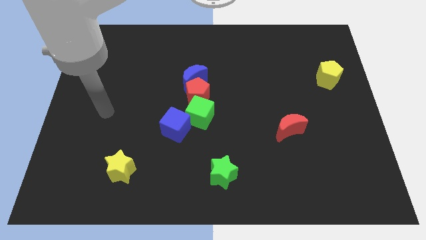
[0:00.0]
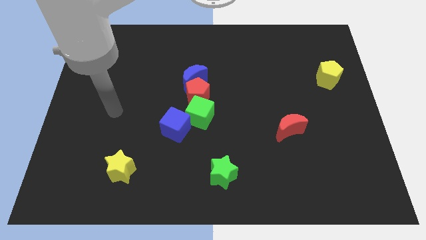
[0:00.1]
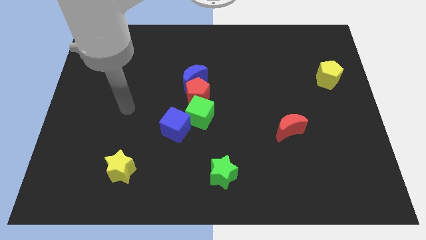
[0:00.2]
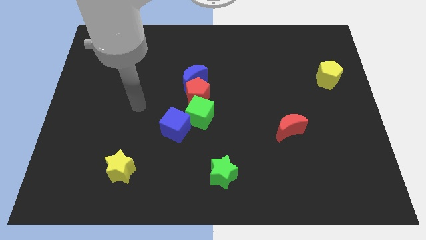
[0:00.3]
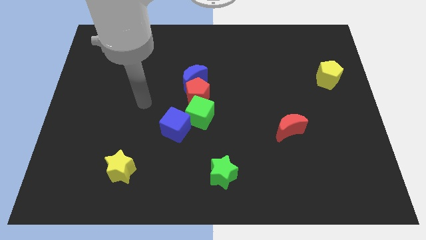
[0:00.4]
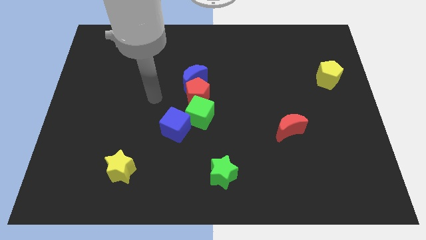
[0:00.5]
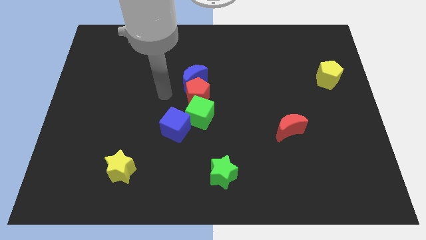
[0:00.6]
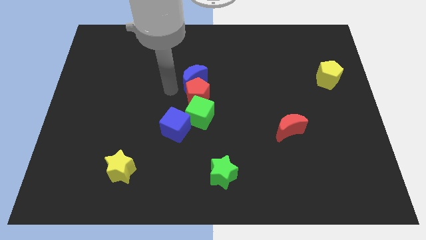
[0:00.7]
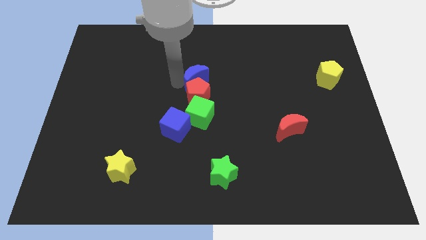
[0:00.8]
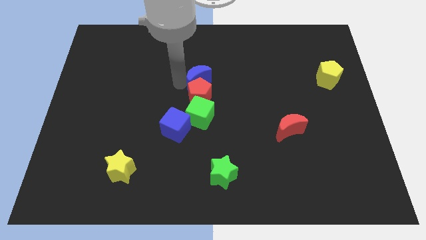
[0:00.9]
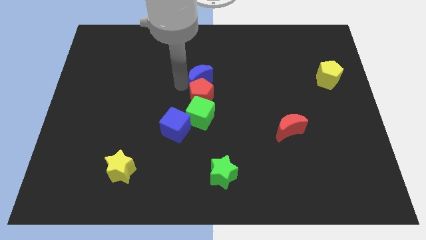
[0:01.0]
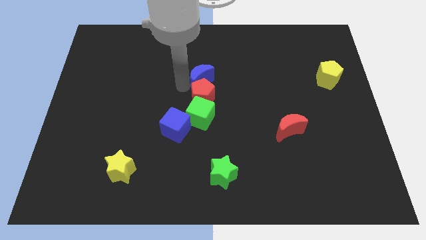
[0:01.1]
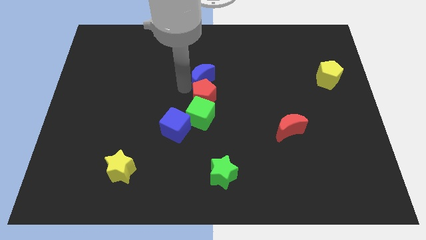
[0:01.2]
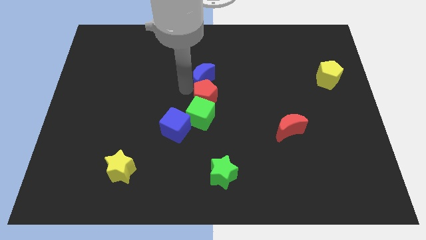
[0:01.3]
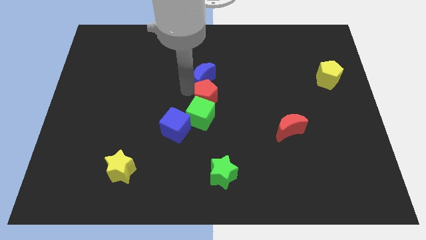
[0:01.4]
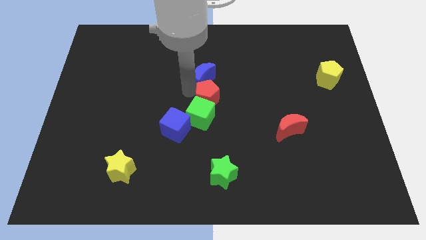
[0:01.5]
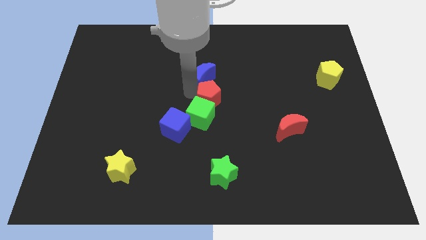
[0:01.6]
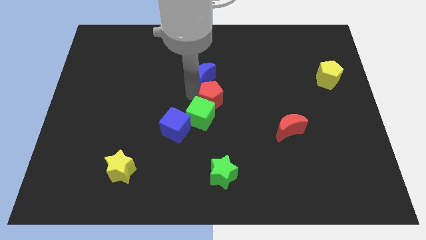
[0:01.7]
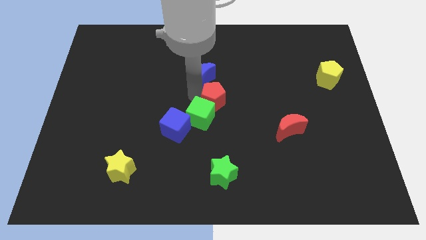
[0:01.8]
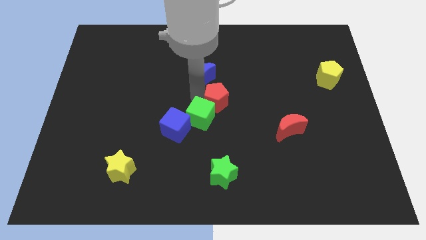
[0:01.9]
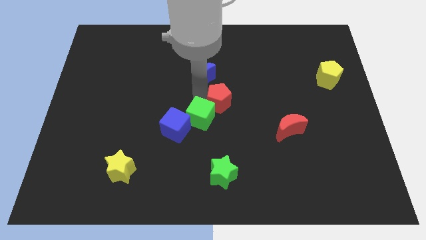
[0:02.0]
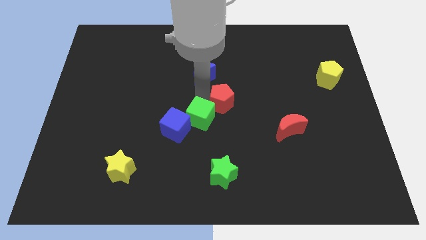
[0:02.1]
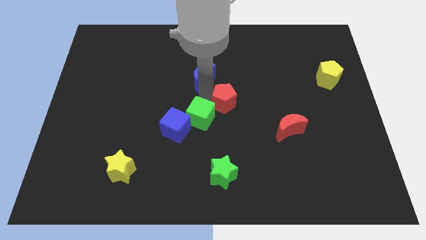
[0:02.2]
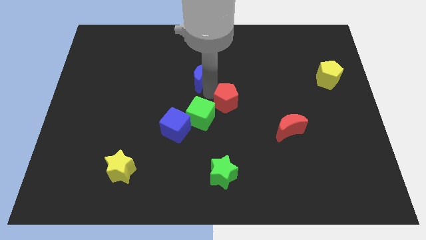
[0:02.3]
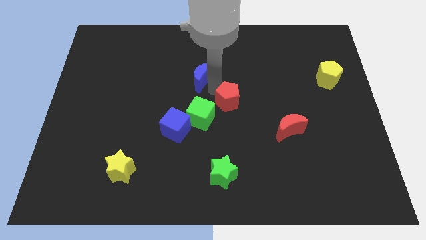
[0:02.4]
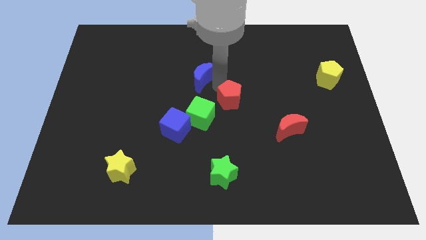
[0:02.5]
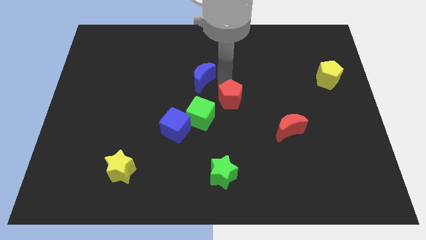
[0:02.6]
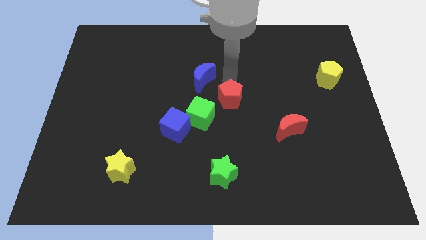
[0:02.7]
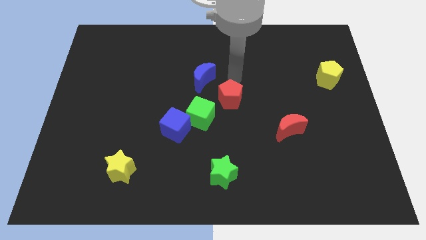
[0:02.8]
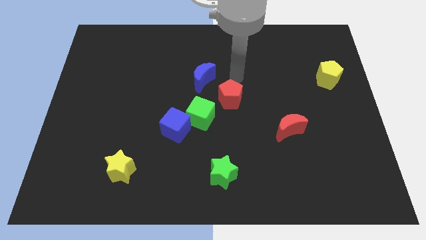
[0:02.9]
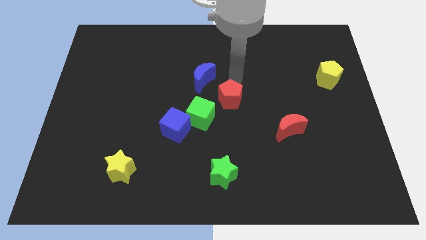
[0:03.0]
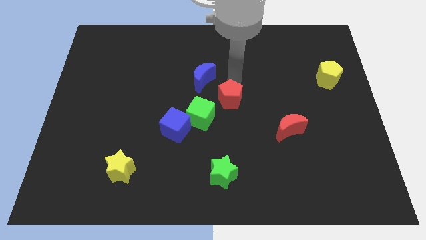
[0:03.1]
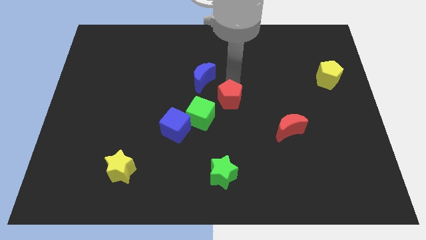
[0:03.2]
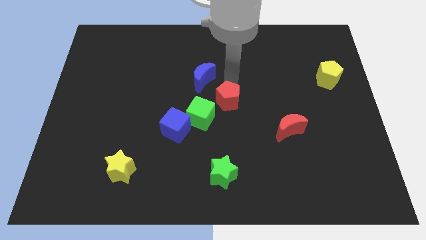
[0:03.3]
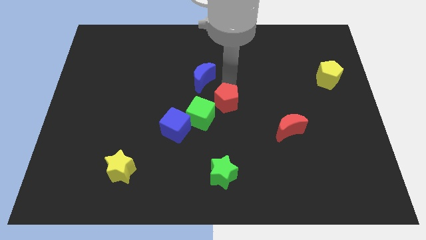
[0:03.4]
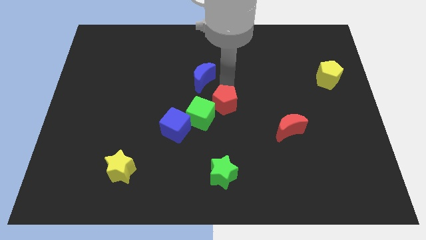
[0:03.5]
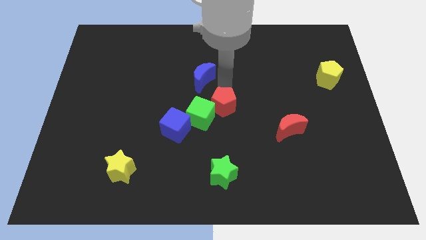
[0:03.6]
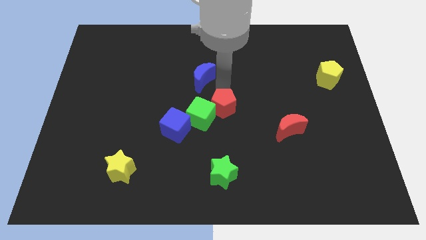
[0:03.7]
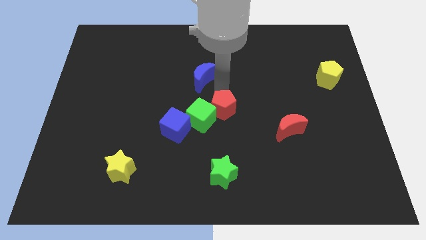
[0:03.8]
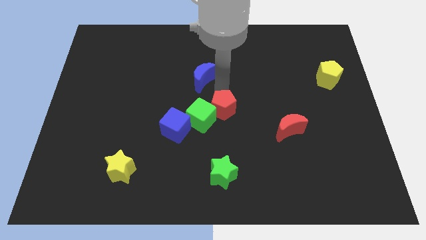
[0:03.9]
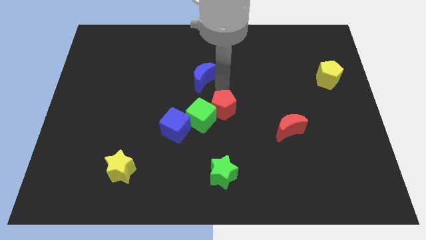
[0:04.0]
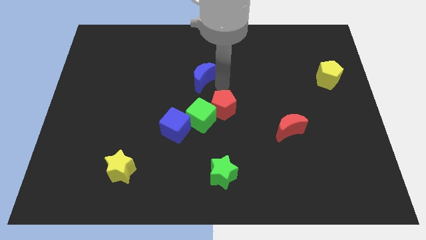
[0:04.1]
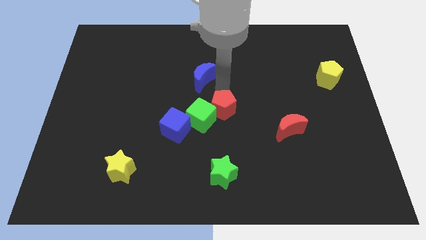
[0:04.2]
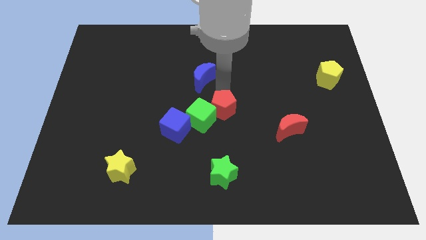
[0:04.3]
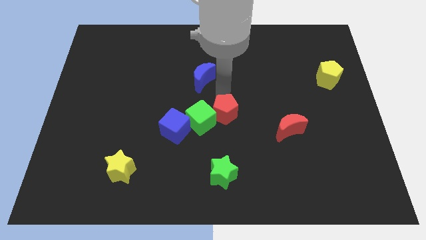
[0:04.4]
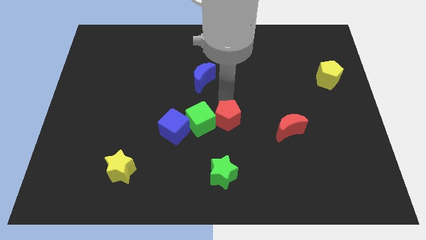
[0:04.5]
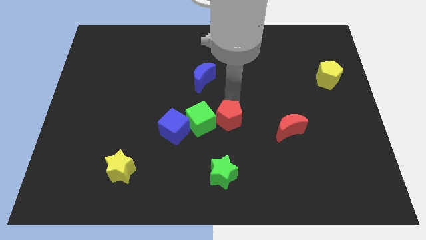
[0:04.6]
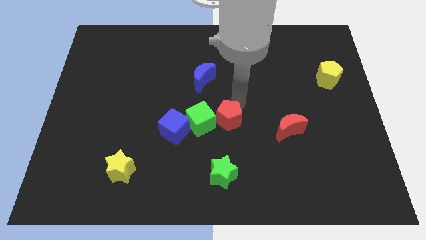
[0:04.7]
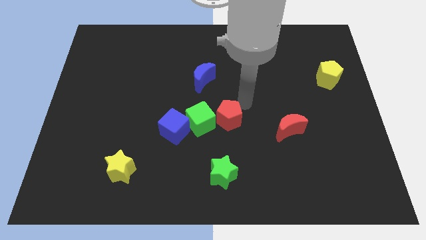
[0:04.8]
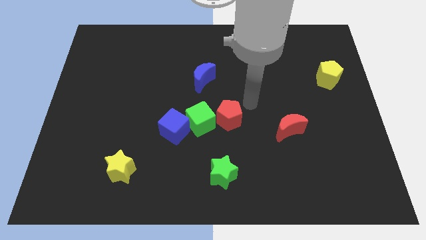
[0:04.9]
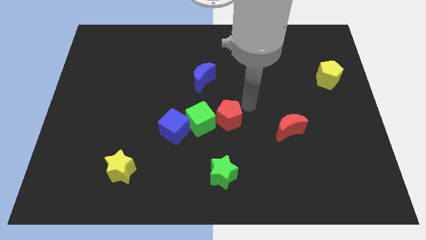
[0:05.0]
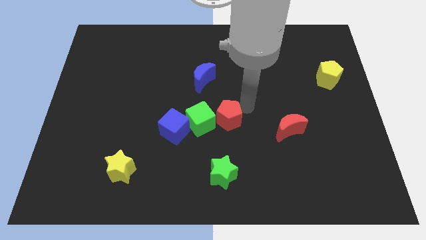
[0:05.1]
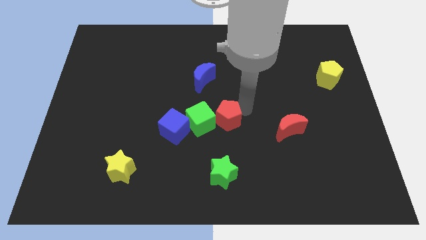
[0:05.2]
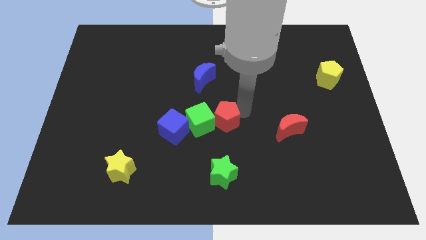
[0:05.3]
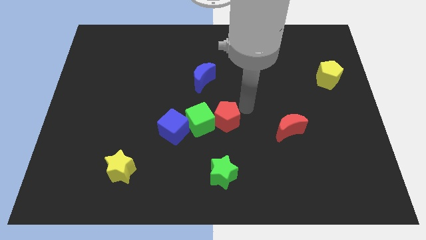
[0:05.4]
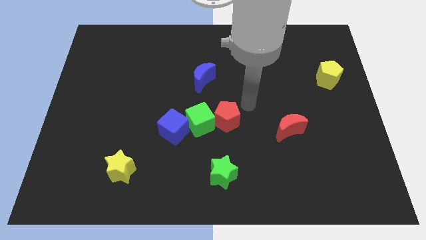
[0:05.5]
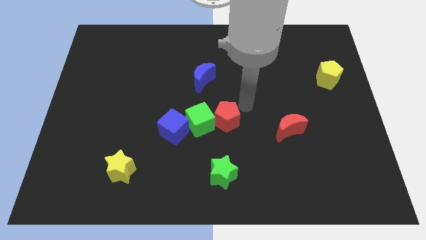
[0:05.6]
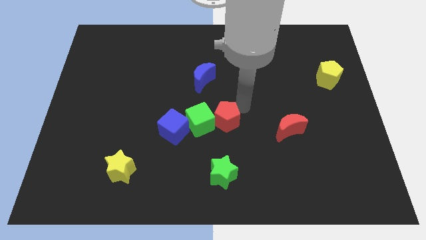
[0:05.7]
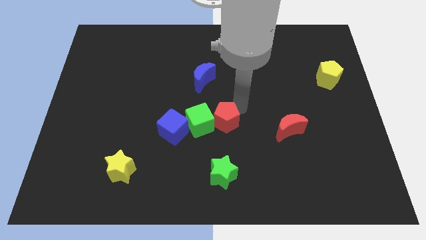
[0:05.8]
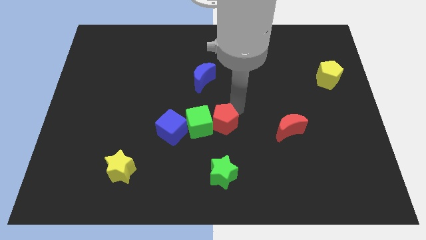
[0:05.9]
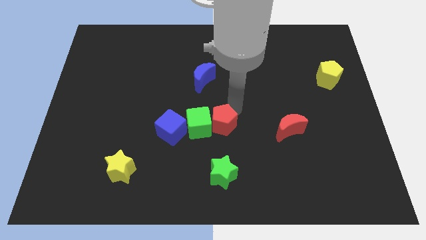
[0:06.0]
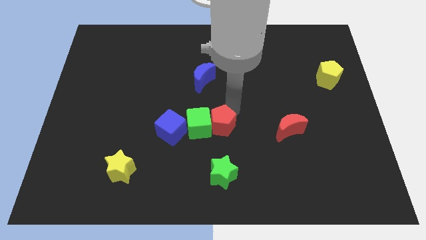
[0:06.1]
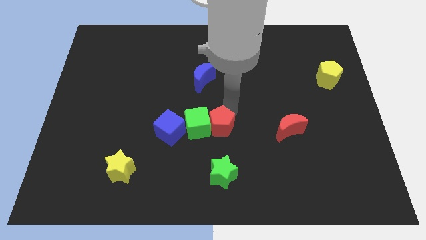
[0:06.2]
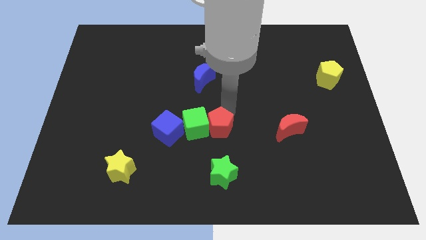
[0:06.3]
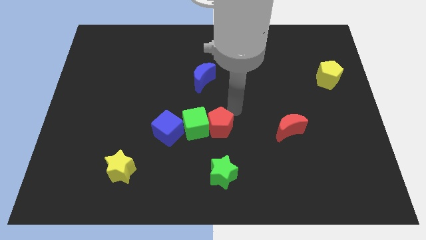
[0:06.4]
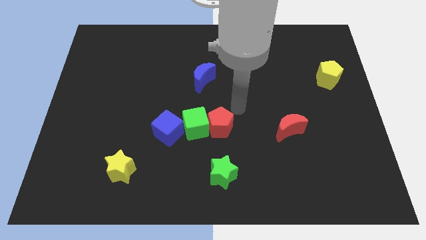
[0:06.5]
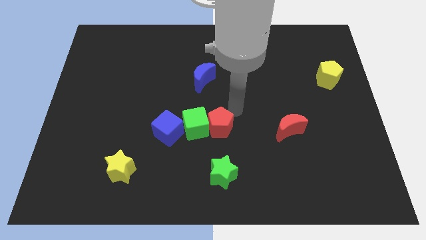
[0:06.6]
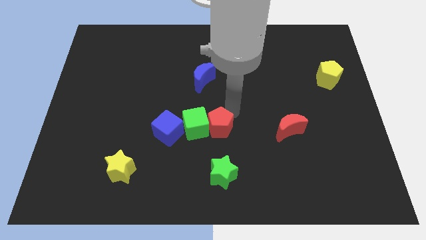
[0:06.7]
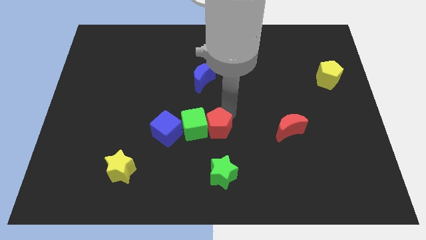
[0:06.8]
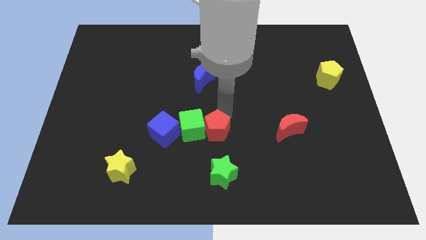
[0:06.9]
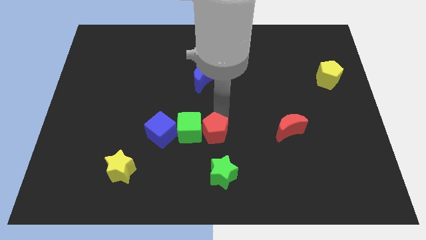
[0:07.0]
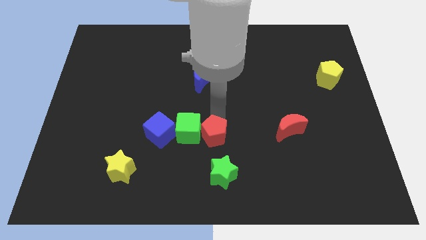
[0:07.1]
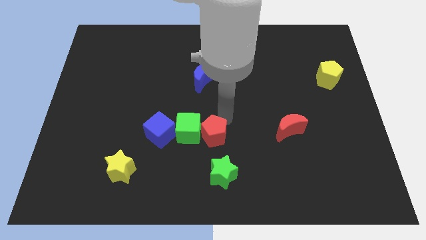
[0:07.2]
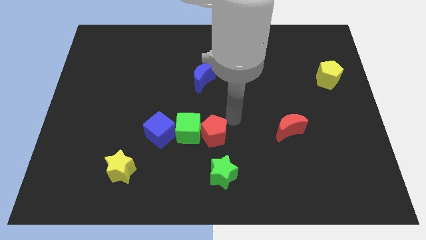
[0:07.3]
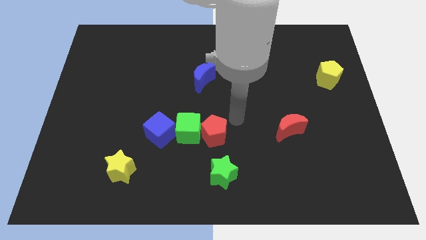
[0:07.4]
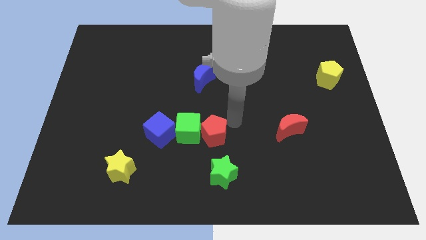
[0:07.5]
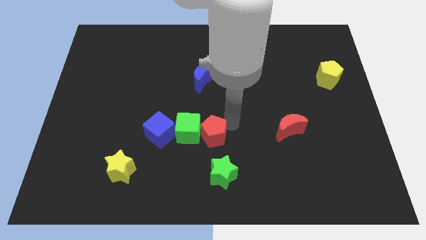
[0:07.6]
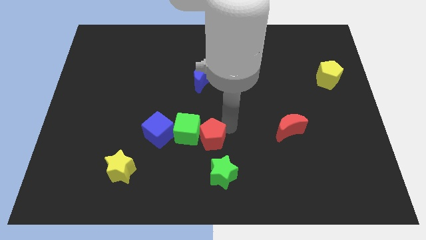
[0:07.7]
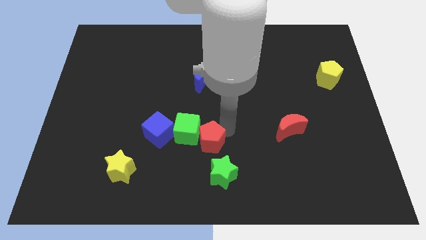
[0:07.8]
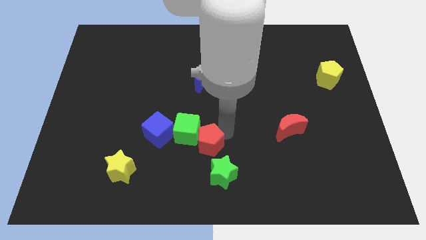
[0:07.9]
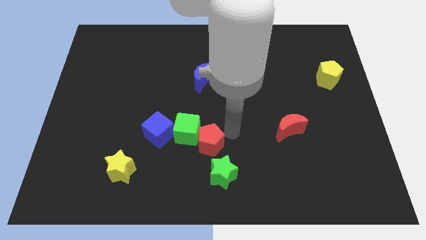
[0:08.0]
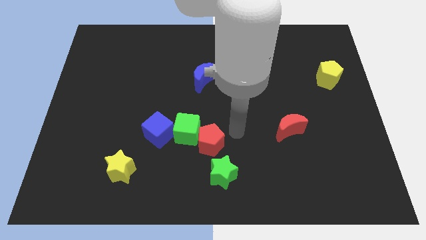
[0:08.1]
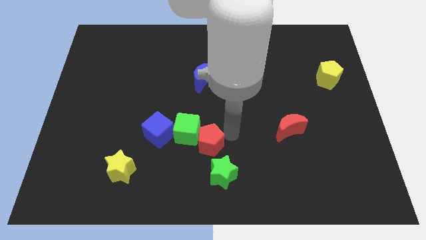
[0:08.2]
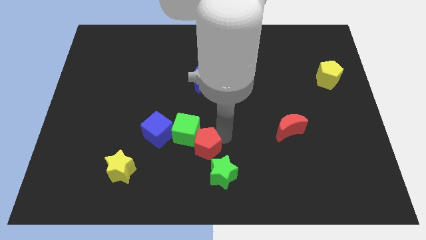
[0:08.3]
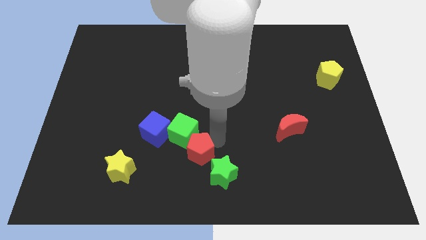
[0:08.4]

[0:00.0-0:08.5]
slide the red pentagon to the bottom right of the blue cube
